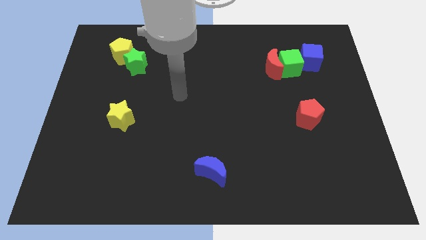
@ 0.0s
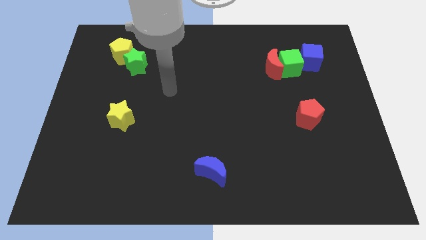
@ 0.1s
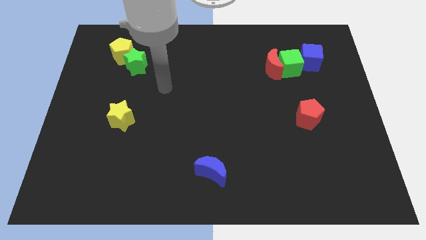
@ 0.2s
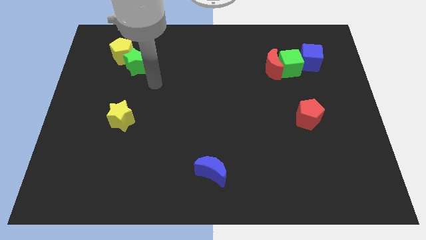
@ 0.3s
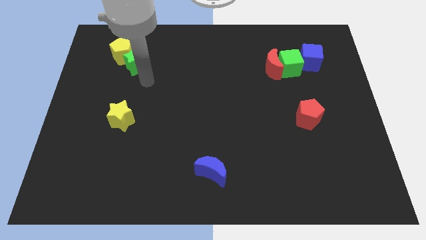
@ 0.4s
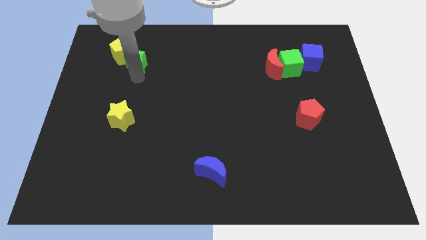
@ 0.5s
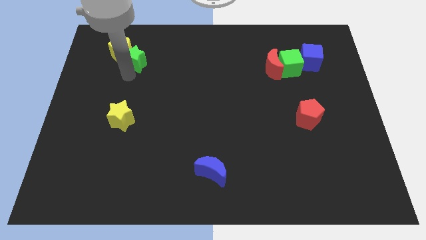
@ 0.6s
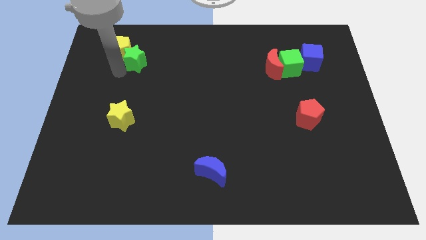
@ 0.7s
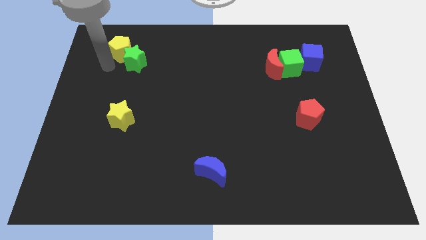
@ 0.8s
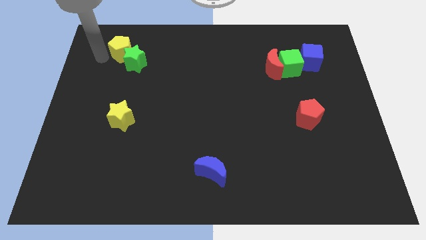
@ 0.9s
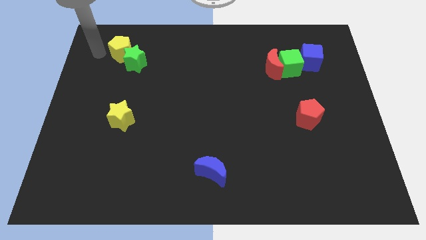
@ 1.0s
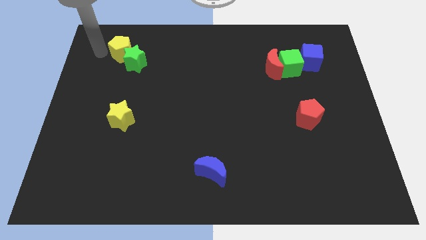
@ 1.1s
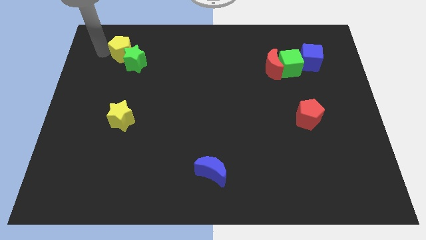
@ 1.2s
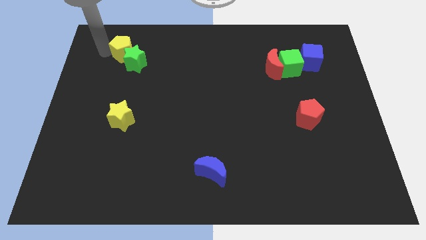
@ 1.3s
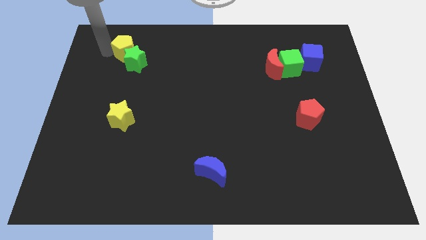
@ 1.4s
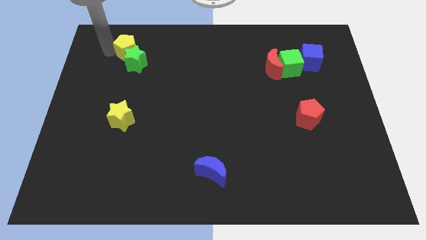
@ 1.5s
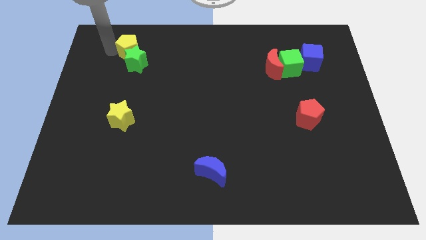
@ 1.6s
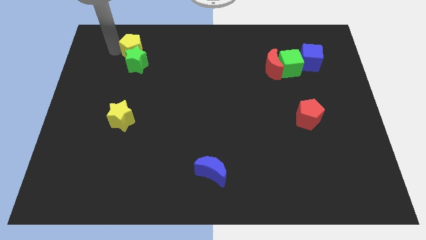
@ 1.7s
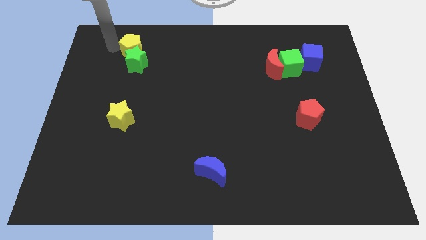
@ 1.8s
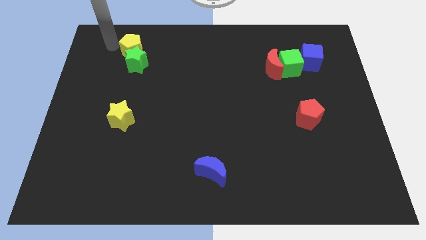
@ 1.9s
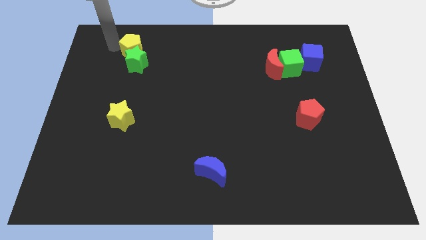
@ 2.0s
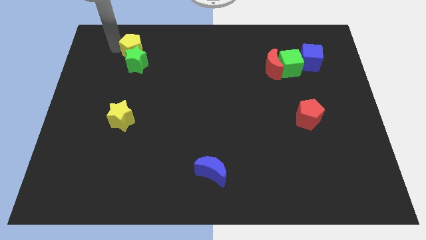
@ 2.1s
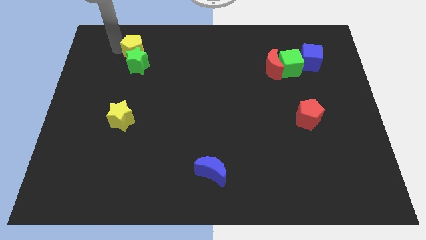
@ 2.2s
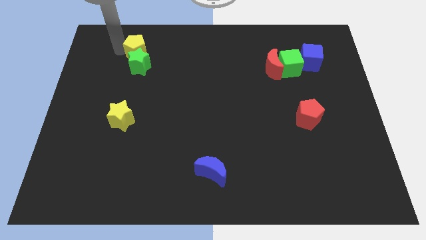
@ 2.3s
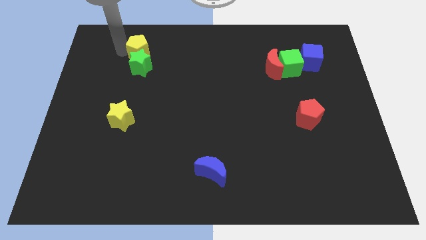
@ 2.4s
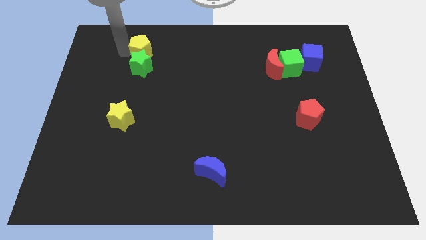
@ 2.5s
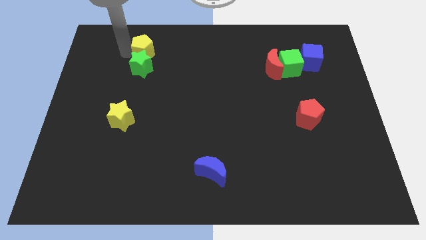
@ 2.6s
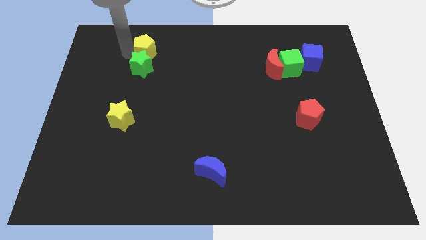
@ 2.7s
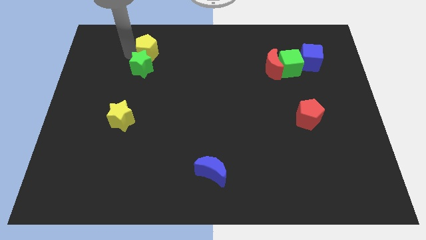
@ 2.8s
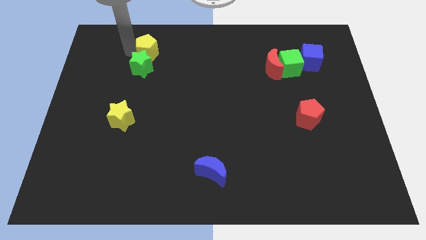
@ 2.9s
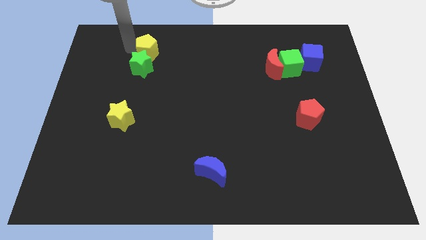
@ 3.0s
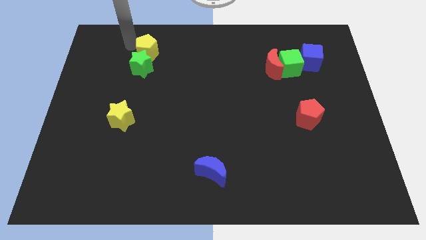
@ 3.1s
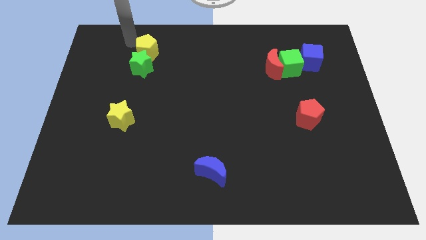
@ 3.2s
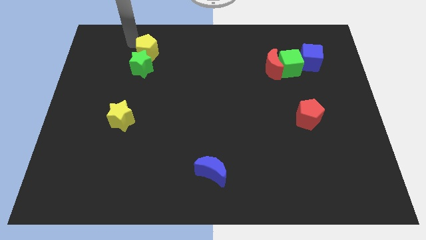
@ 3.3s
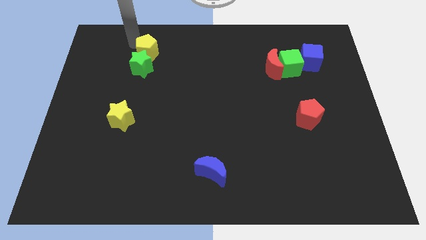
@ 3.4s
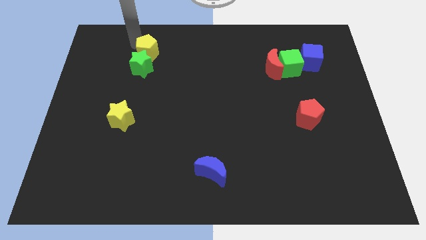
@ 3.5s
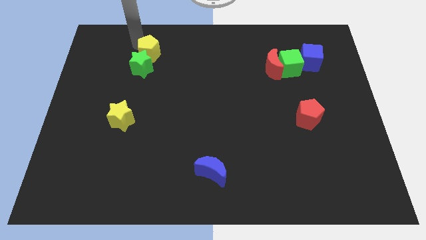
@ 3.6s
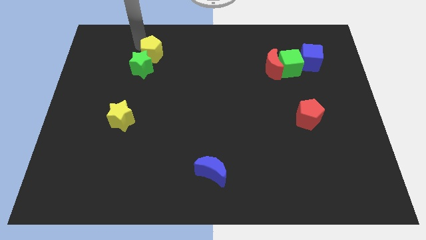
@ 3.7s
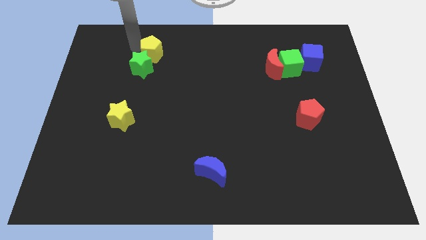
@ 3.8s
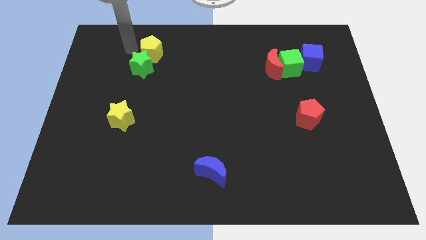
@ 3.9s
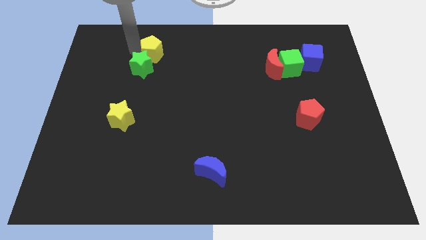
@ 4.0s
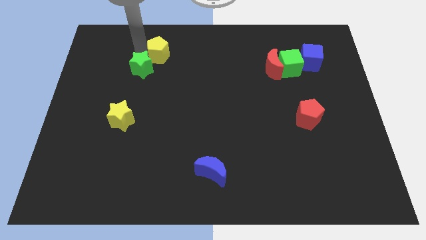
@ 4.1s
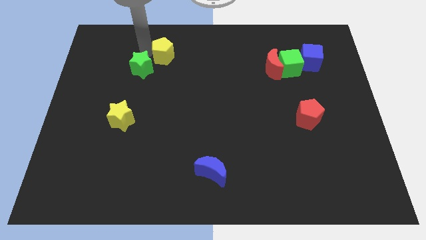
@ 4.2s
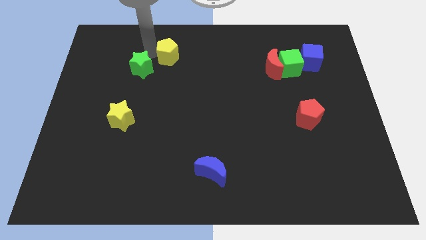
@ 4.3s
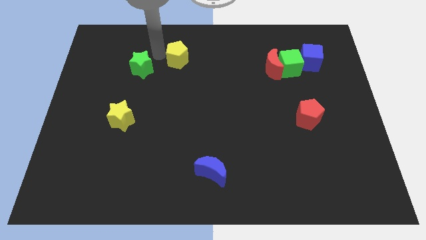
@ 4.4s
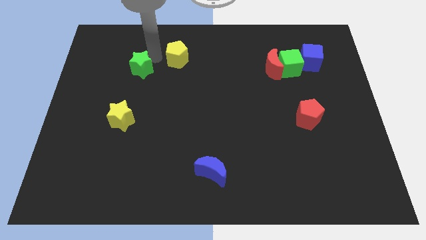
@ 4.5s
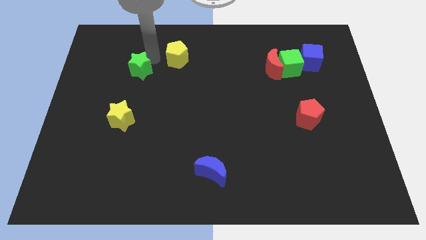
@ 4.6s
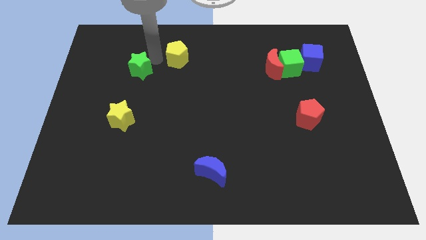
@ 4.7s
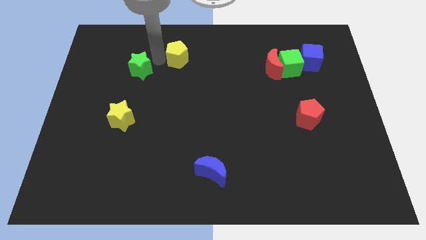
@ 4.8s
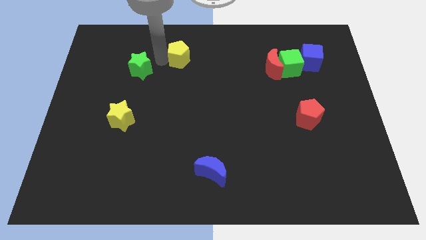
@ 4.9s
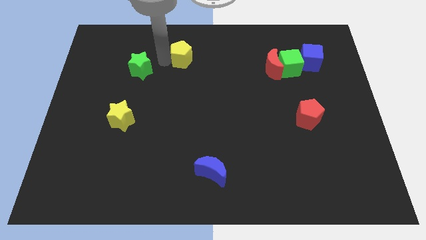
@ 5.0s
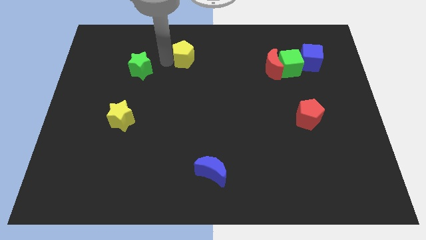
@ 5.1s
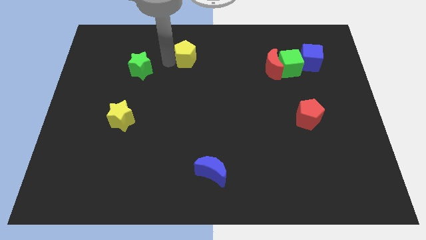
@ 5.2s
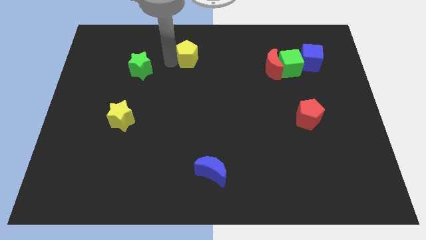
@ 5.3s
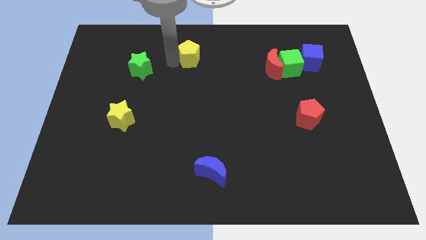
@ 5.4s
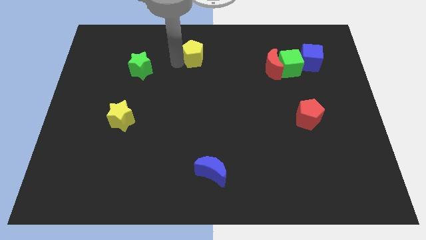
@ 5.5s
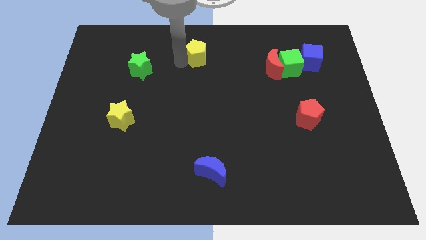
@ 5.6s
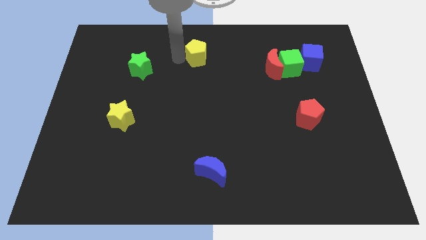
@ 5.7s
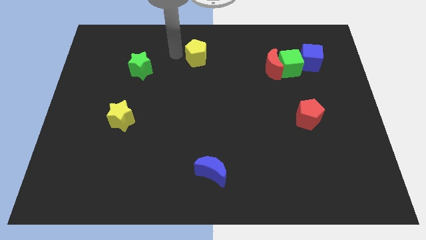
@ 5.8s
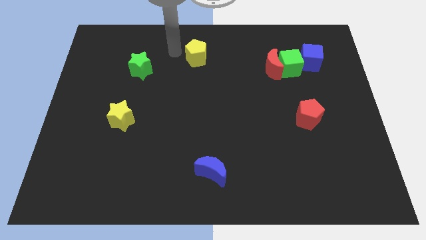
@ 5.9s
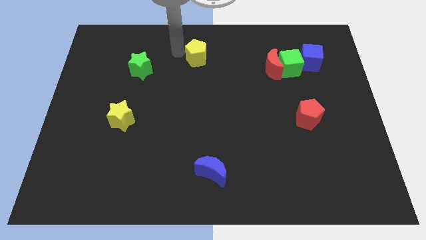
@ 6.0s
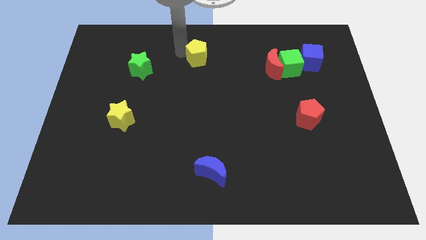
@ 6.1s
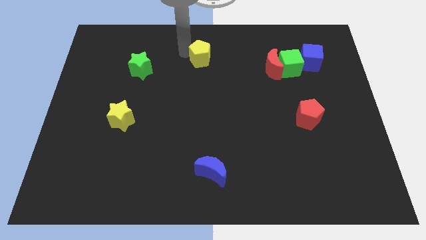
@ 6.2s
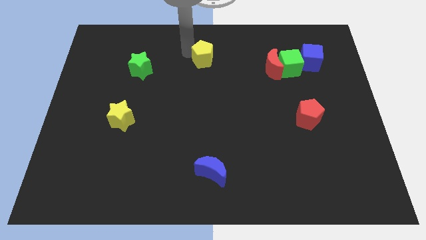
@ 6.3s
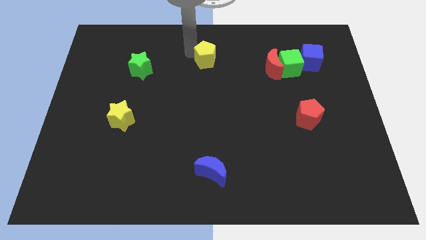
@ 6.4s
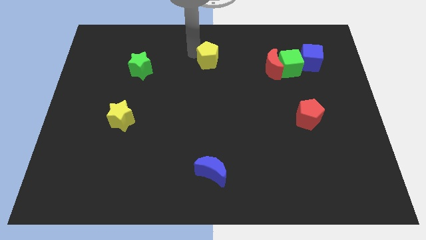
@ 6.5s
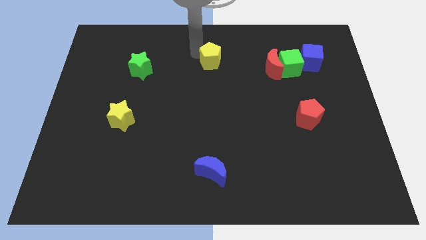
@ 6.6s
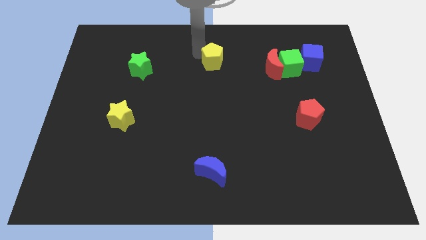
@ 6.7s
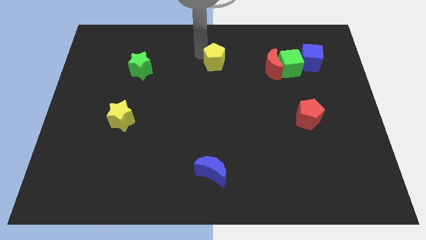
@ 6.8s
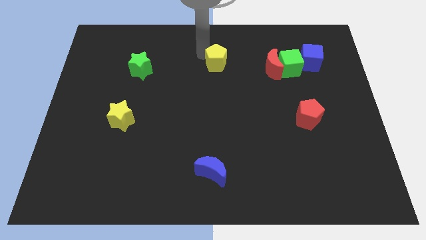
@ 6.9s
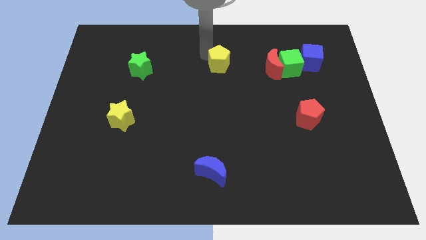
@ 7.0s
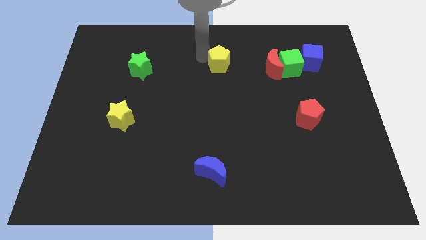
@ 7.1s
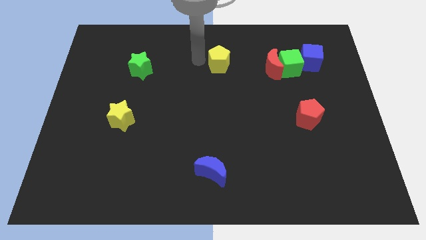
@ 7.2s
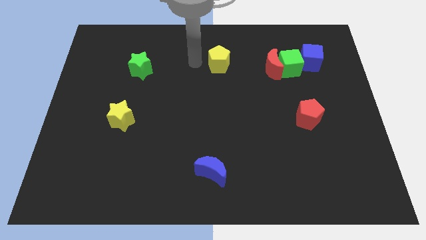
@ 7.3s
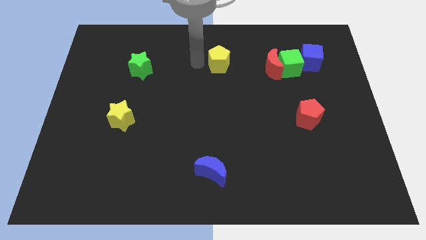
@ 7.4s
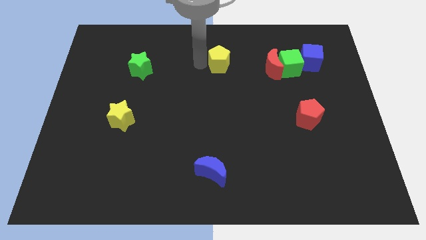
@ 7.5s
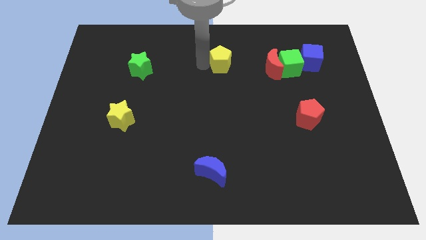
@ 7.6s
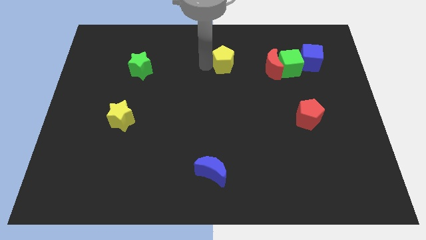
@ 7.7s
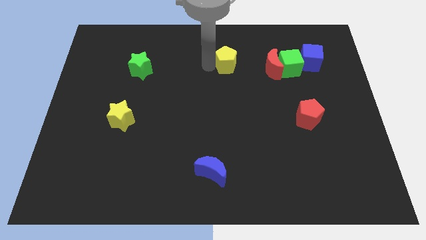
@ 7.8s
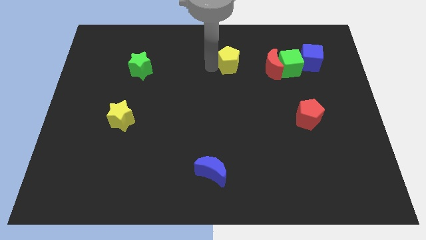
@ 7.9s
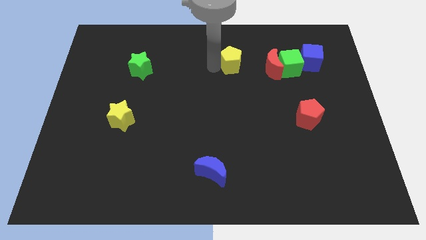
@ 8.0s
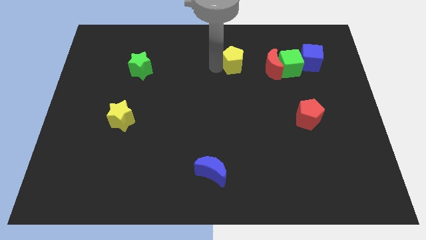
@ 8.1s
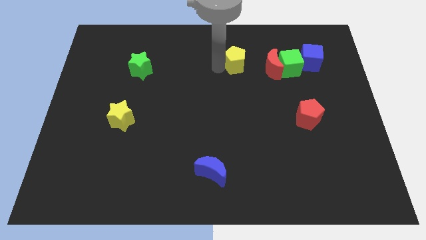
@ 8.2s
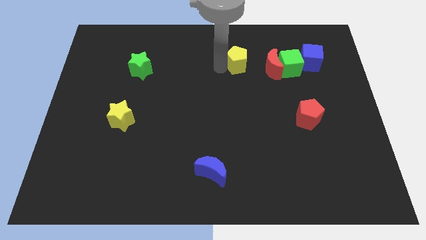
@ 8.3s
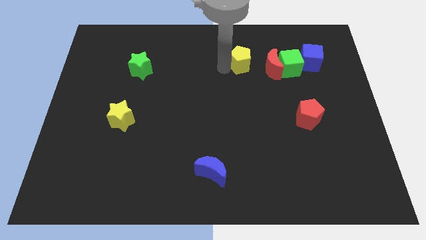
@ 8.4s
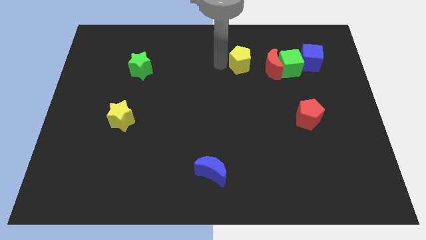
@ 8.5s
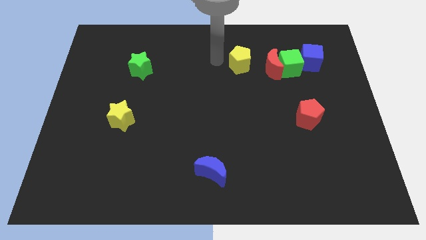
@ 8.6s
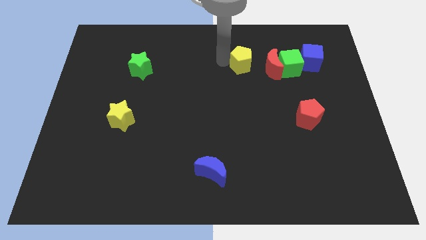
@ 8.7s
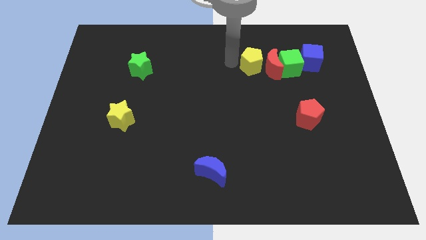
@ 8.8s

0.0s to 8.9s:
put the yellow pentagon to the red moon
